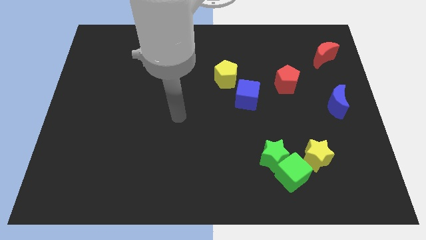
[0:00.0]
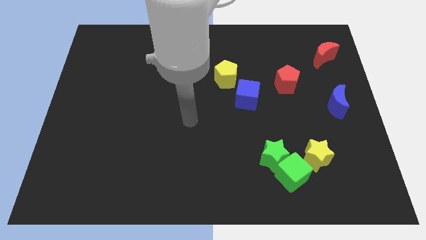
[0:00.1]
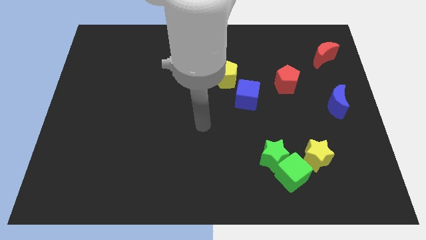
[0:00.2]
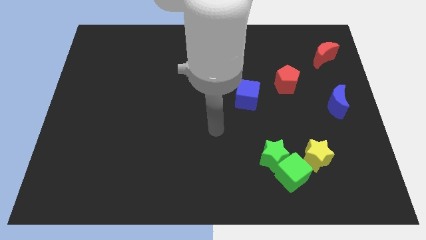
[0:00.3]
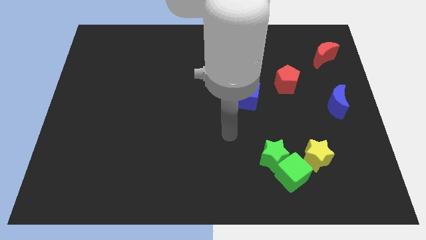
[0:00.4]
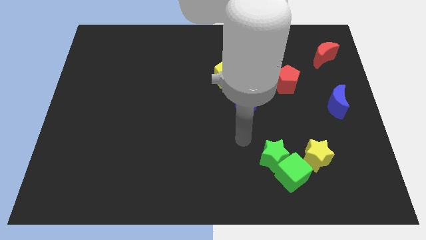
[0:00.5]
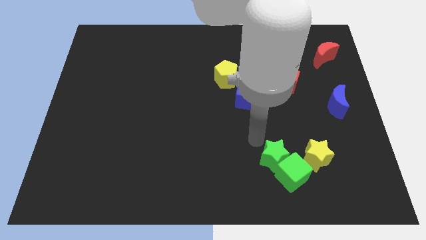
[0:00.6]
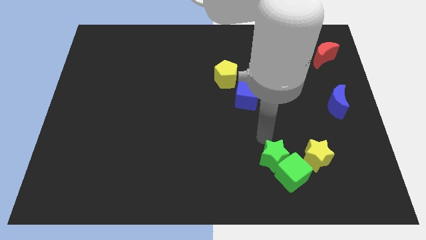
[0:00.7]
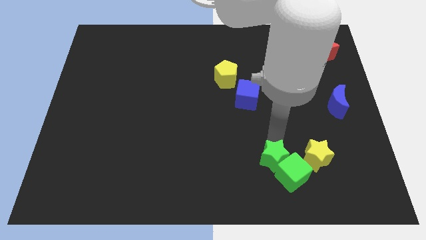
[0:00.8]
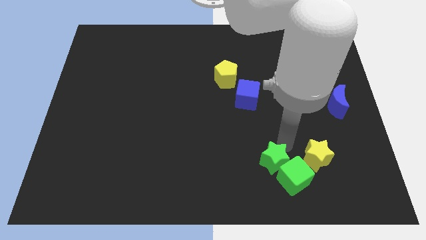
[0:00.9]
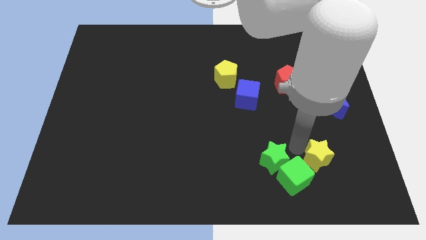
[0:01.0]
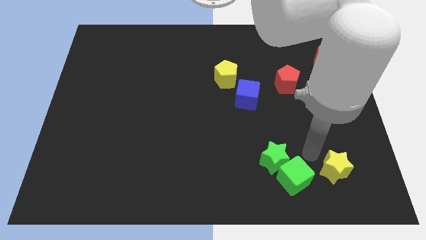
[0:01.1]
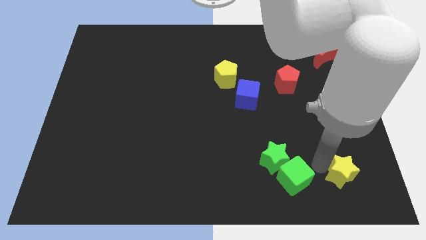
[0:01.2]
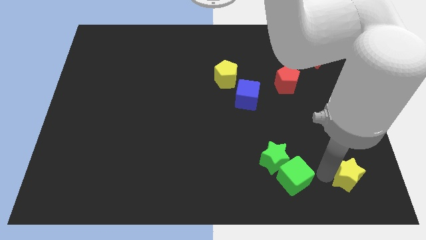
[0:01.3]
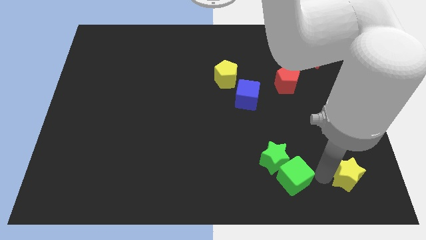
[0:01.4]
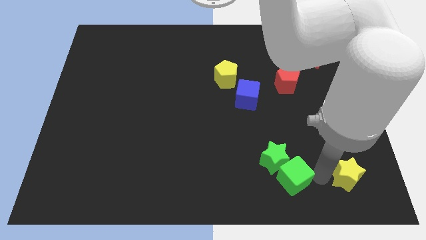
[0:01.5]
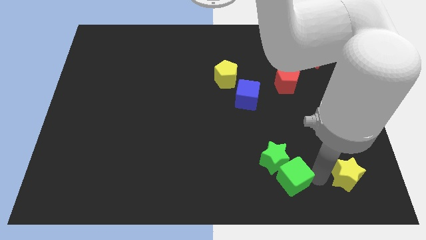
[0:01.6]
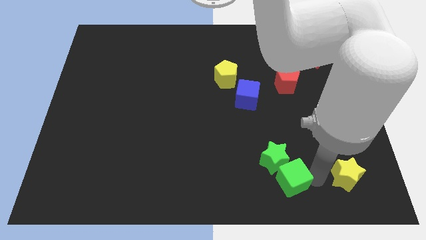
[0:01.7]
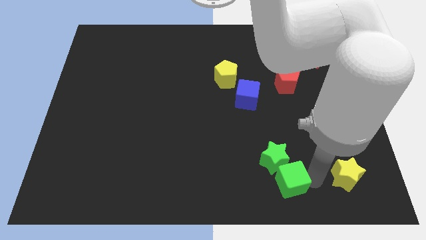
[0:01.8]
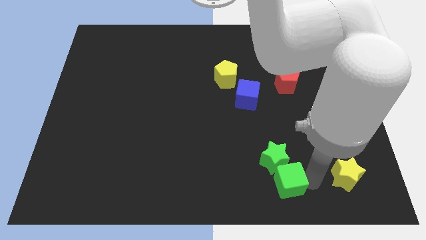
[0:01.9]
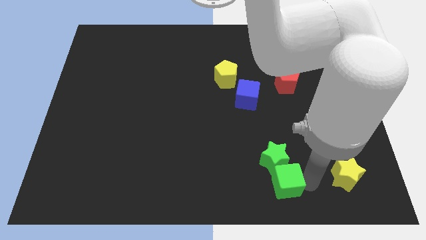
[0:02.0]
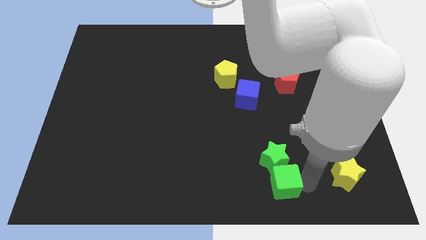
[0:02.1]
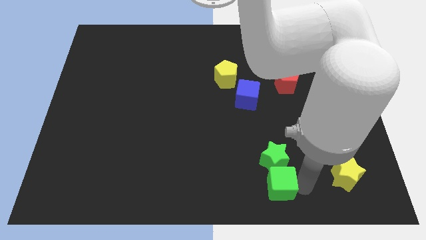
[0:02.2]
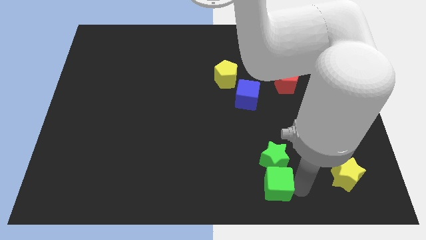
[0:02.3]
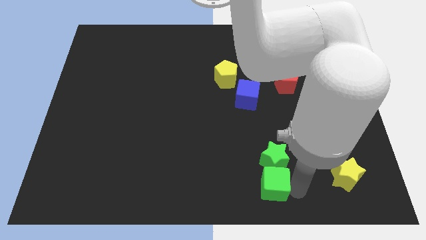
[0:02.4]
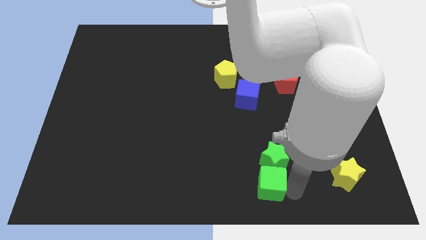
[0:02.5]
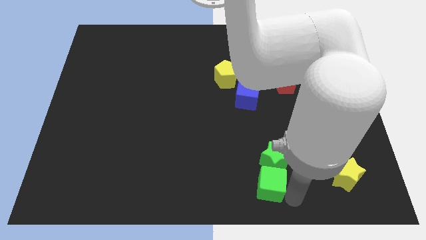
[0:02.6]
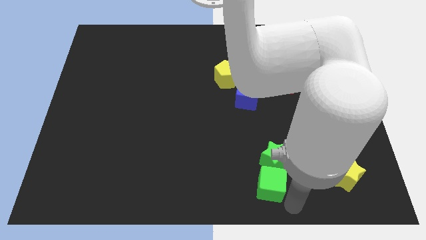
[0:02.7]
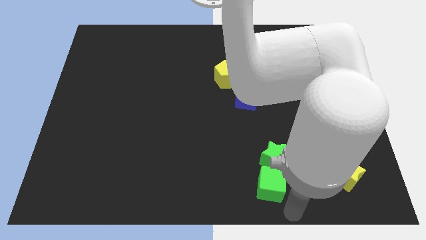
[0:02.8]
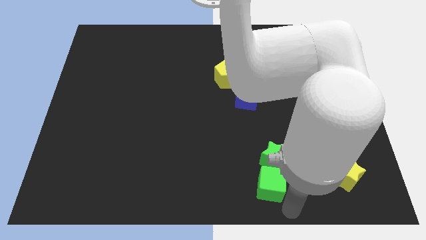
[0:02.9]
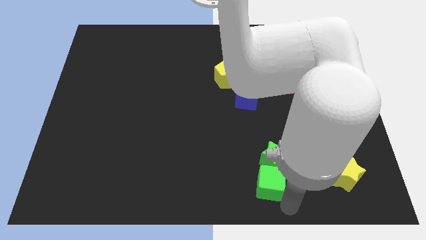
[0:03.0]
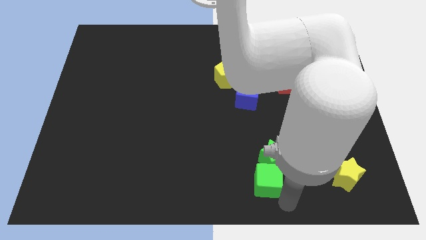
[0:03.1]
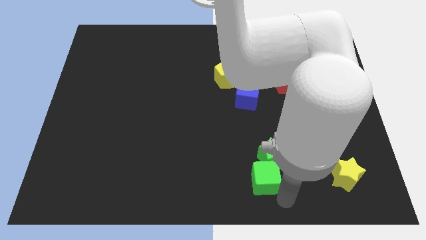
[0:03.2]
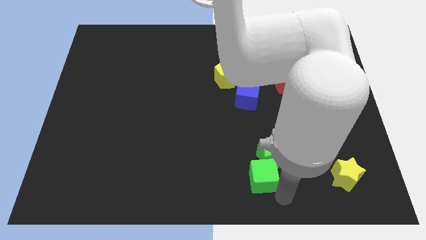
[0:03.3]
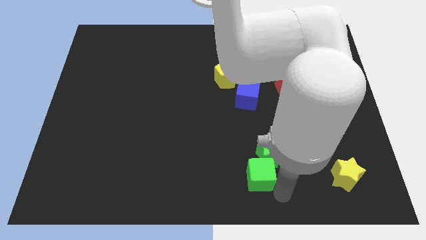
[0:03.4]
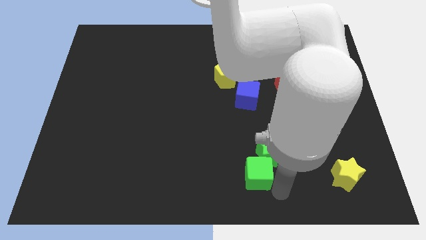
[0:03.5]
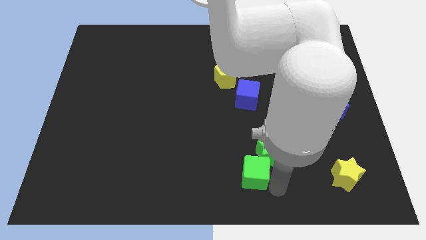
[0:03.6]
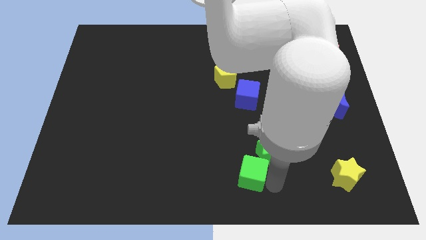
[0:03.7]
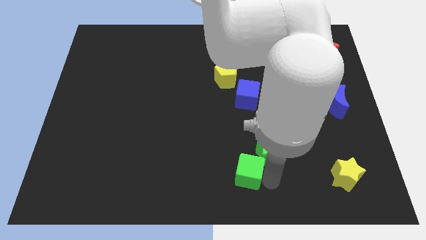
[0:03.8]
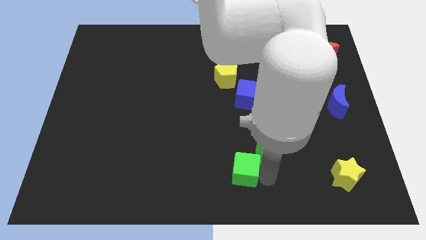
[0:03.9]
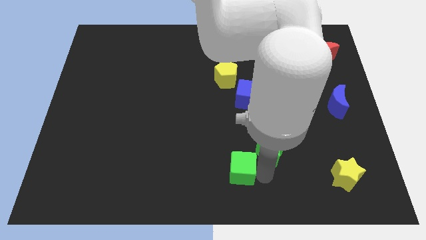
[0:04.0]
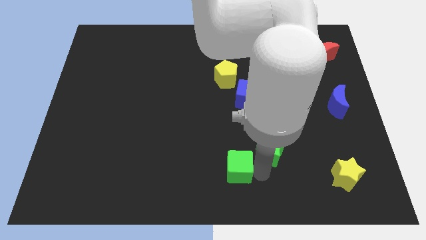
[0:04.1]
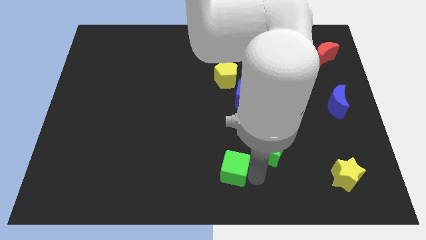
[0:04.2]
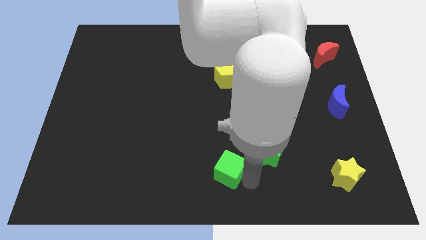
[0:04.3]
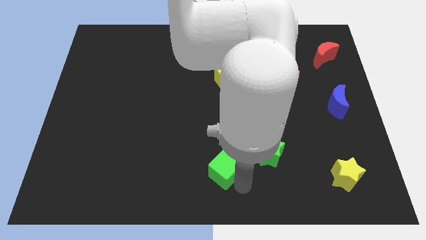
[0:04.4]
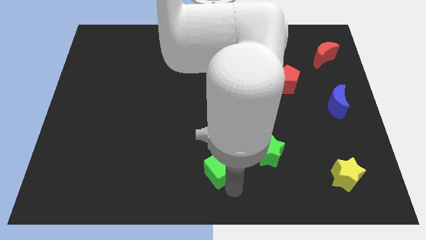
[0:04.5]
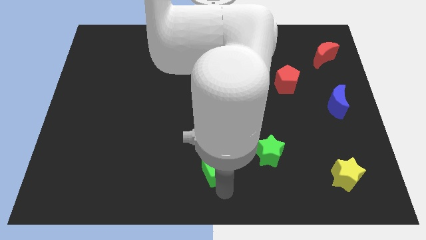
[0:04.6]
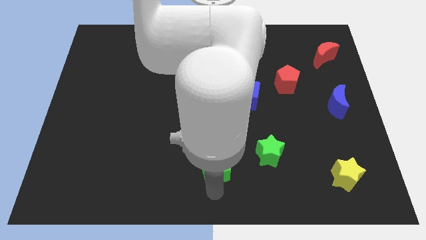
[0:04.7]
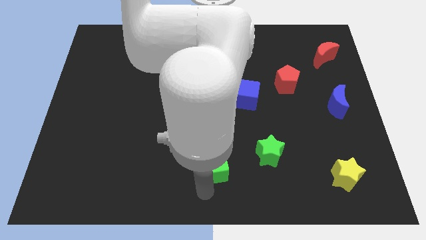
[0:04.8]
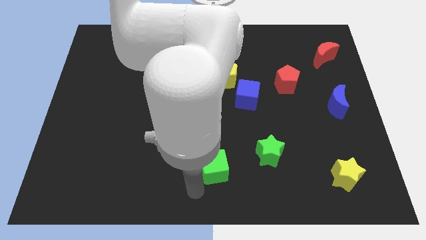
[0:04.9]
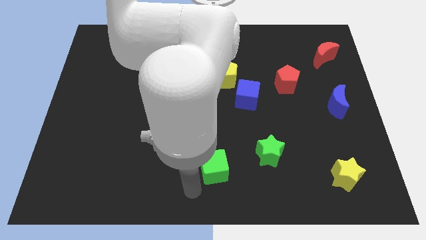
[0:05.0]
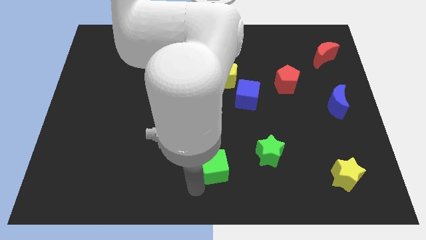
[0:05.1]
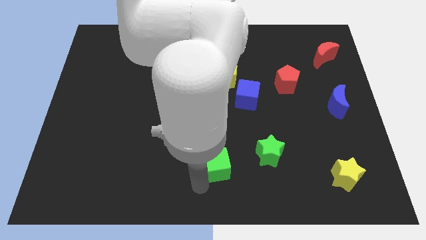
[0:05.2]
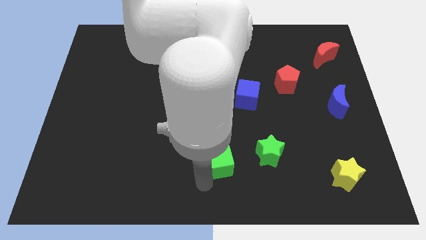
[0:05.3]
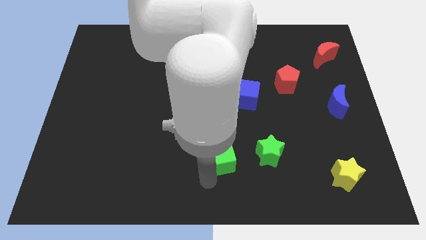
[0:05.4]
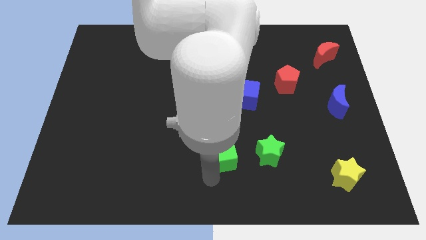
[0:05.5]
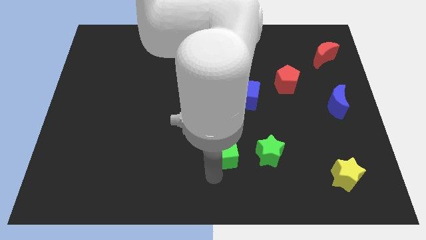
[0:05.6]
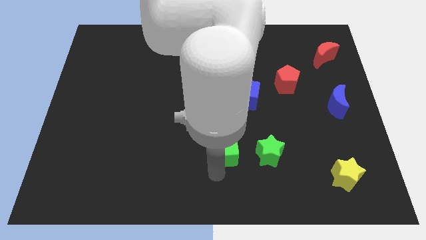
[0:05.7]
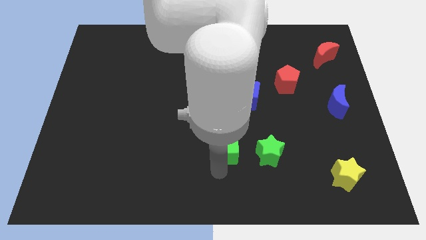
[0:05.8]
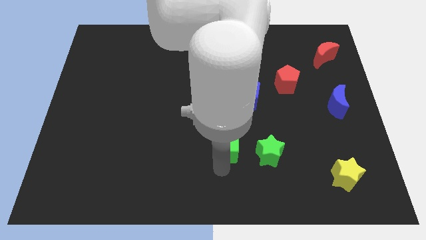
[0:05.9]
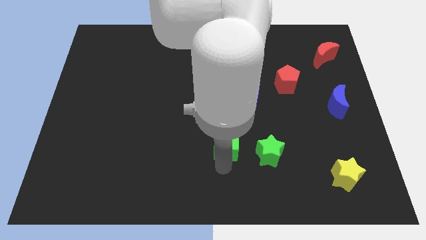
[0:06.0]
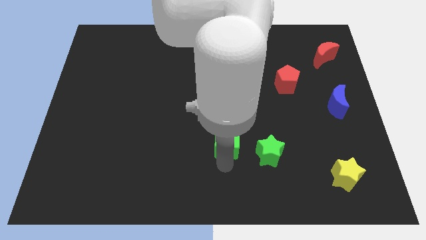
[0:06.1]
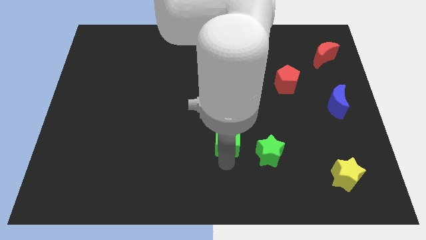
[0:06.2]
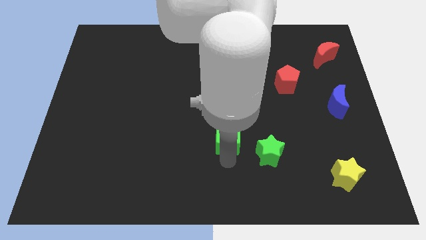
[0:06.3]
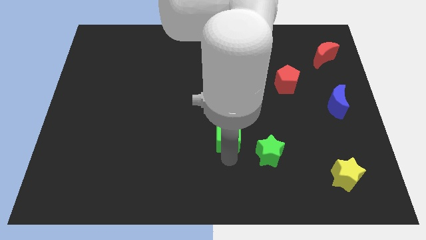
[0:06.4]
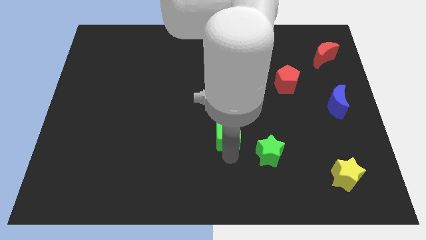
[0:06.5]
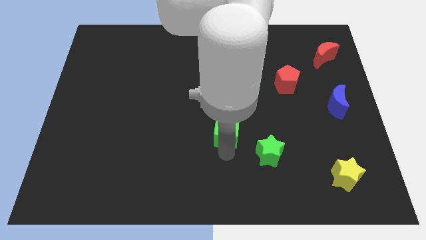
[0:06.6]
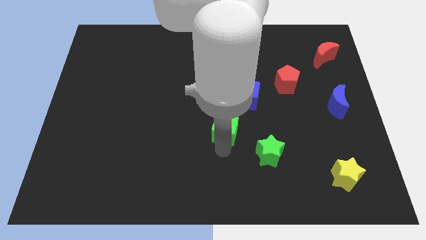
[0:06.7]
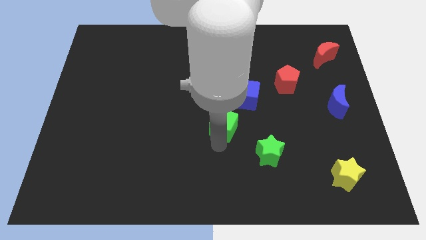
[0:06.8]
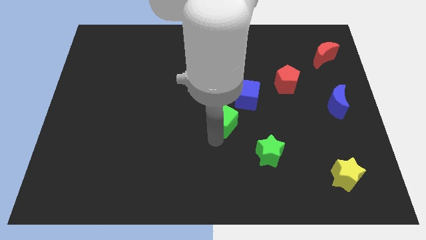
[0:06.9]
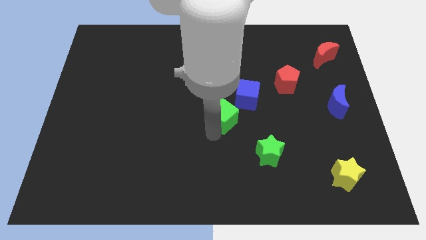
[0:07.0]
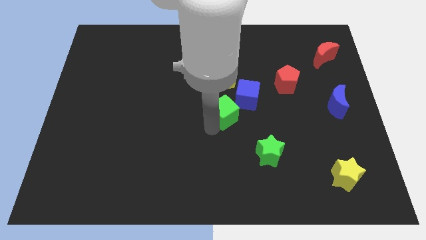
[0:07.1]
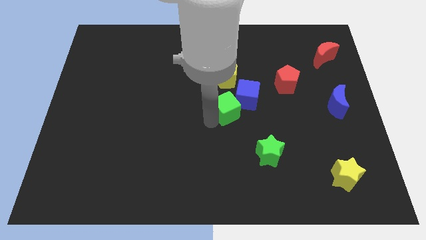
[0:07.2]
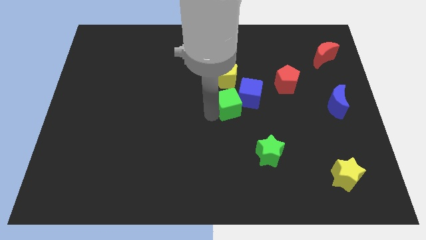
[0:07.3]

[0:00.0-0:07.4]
slide the green cube a little upwards
